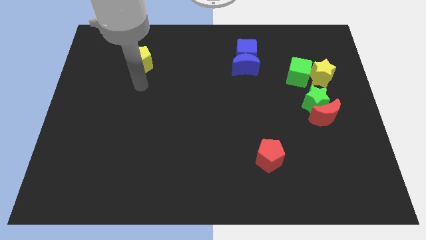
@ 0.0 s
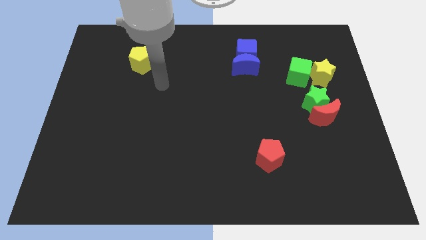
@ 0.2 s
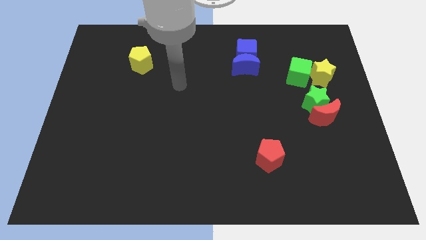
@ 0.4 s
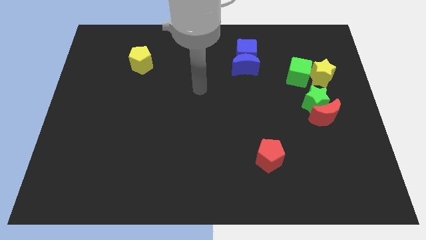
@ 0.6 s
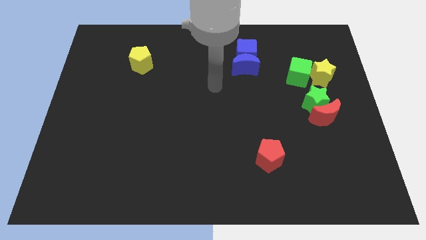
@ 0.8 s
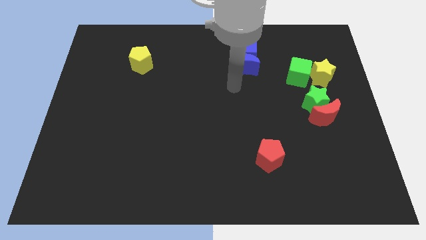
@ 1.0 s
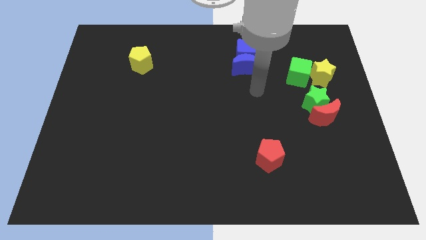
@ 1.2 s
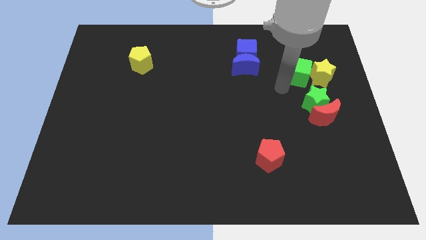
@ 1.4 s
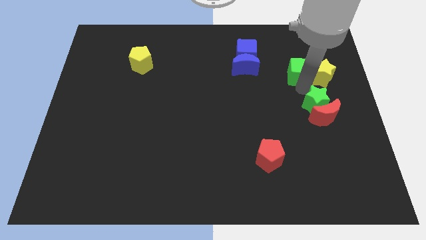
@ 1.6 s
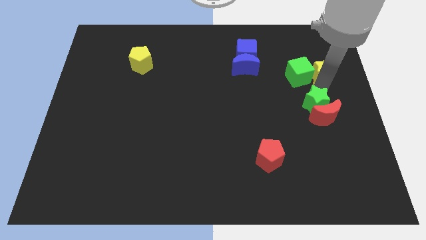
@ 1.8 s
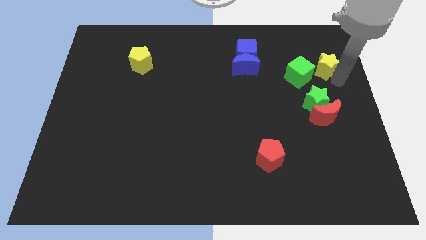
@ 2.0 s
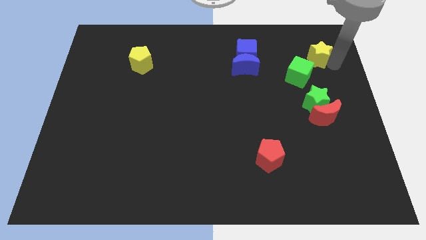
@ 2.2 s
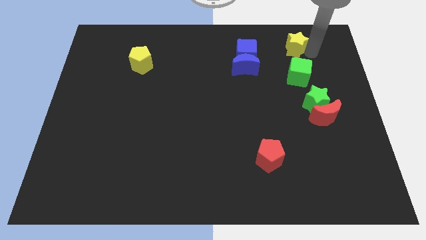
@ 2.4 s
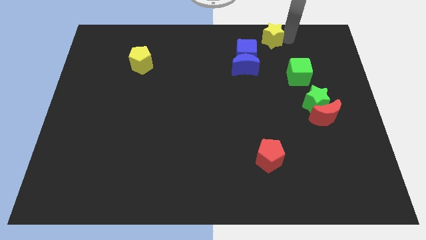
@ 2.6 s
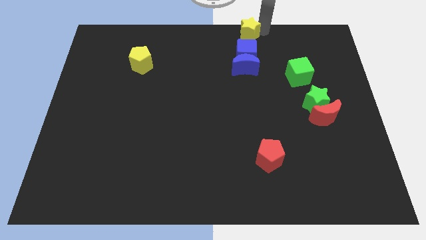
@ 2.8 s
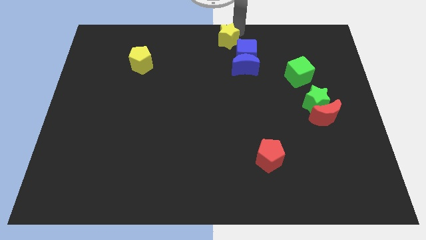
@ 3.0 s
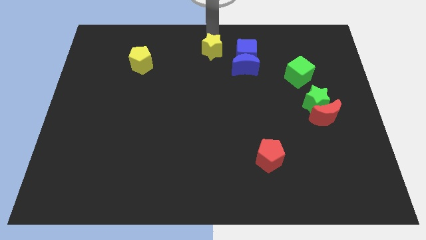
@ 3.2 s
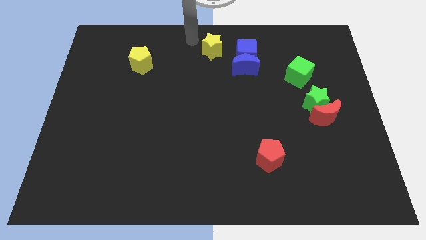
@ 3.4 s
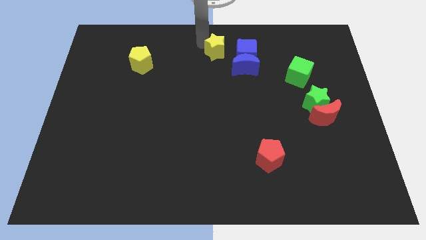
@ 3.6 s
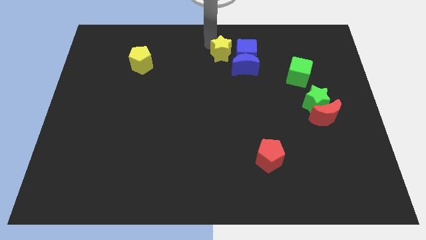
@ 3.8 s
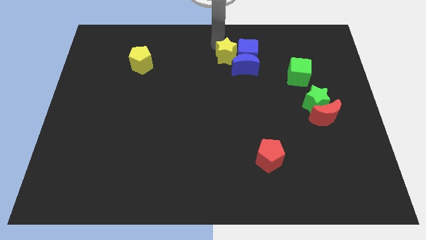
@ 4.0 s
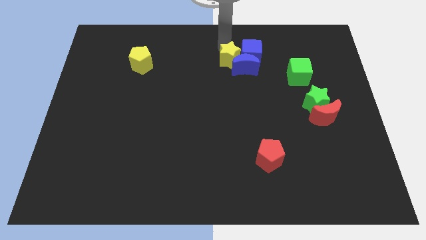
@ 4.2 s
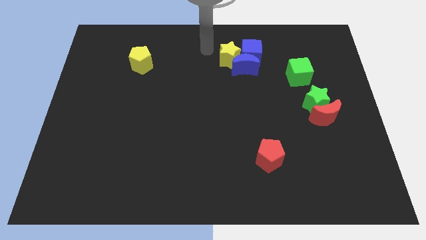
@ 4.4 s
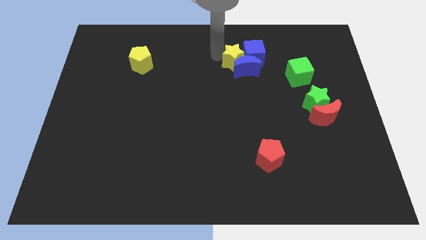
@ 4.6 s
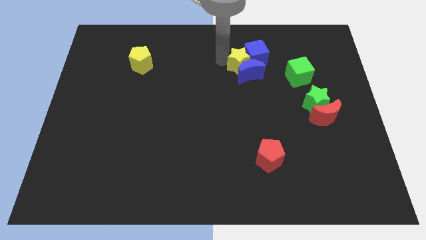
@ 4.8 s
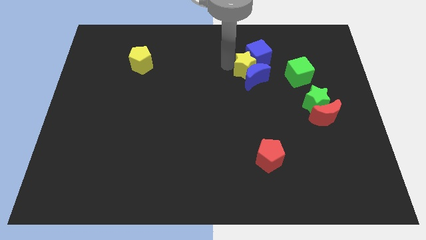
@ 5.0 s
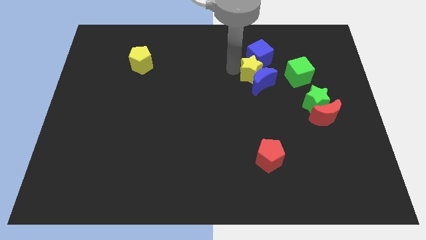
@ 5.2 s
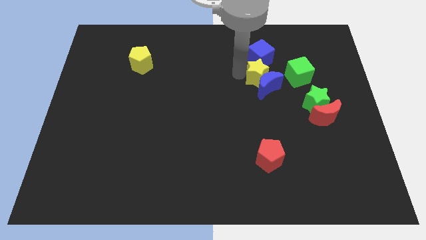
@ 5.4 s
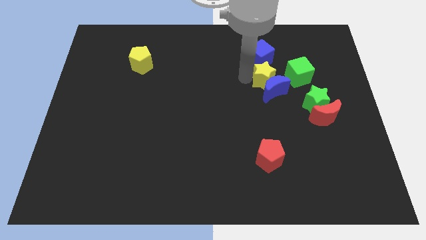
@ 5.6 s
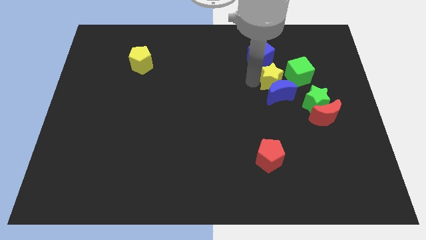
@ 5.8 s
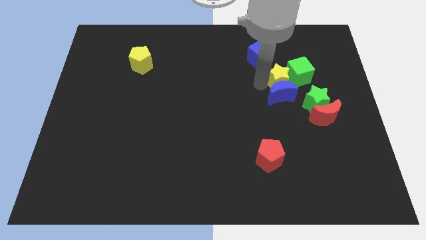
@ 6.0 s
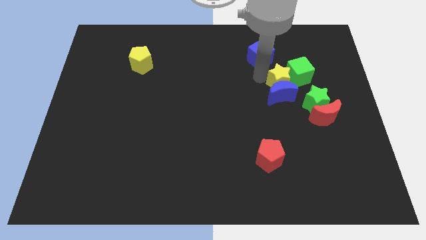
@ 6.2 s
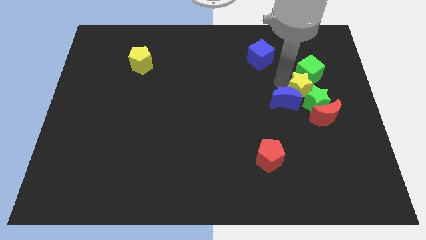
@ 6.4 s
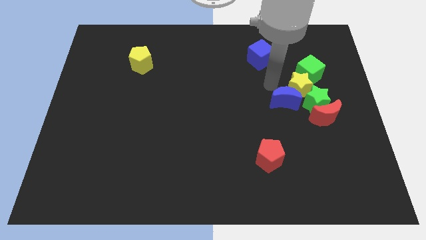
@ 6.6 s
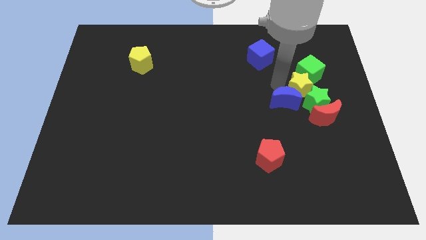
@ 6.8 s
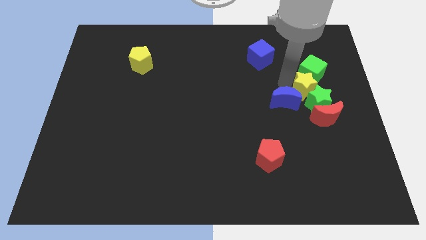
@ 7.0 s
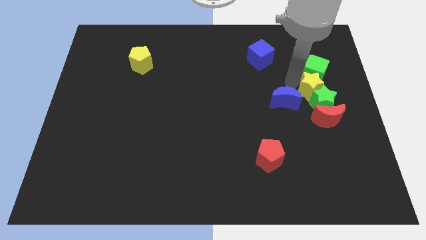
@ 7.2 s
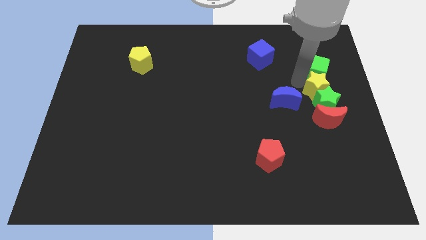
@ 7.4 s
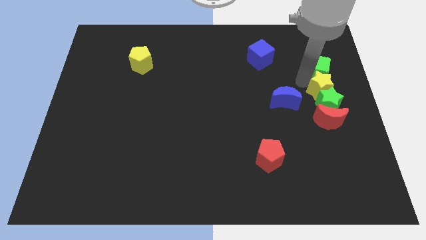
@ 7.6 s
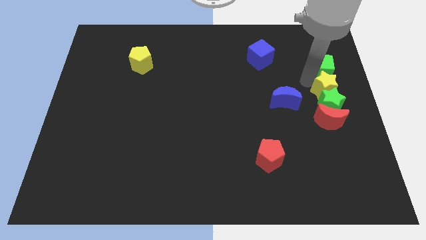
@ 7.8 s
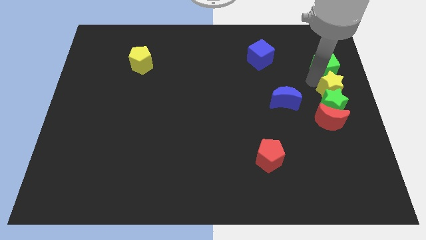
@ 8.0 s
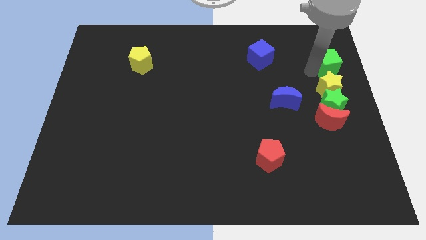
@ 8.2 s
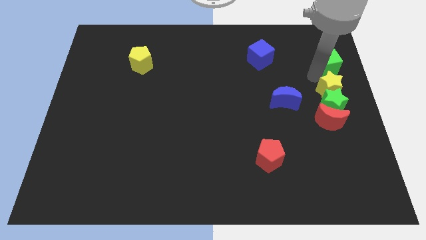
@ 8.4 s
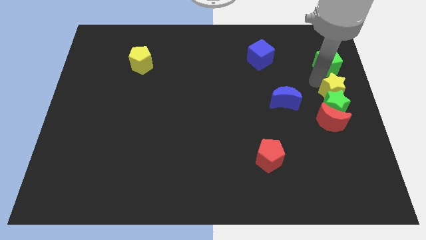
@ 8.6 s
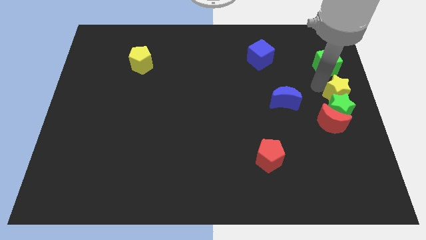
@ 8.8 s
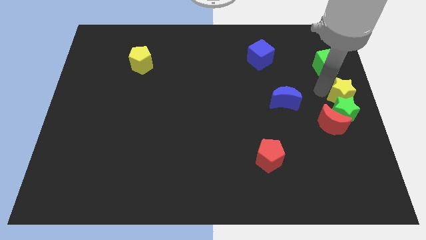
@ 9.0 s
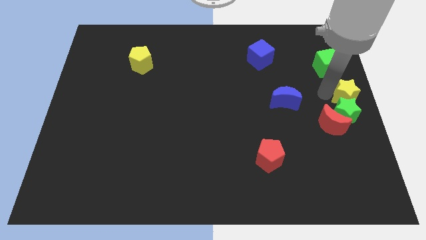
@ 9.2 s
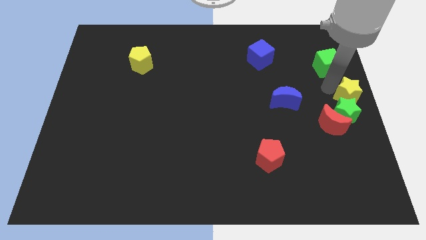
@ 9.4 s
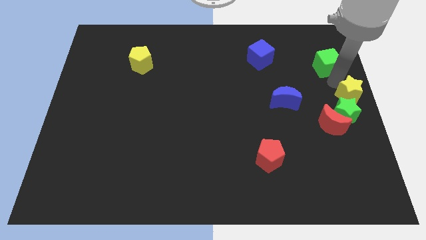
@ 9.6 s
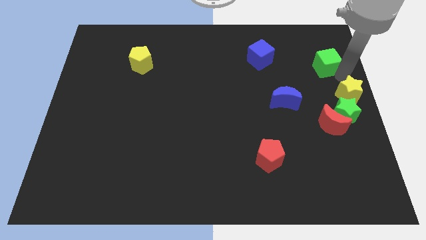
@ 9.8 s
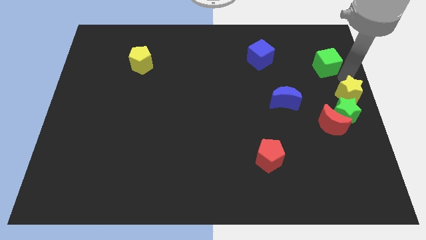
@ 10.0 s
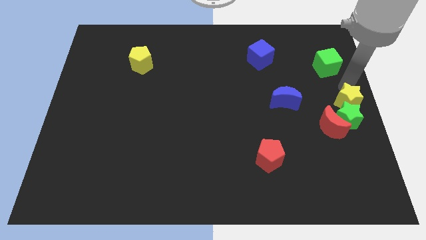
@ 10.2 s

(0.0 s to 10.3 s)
move the yellow star downwards a little bit

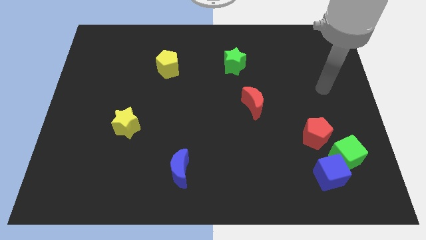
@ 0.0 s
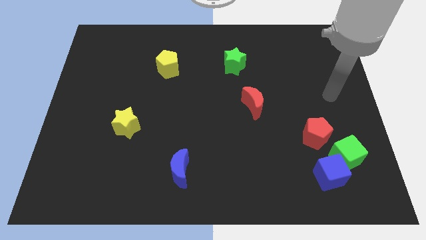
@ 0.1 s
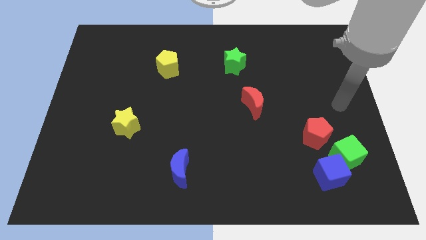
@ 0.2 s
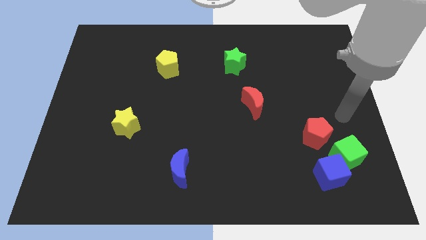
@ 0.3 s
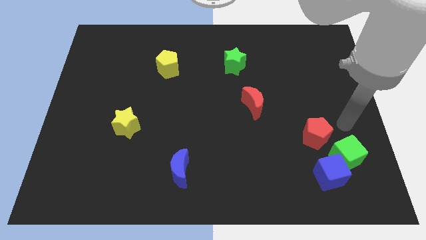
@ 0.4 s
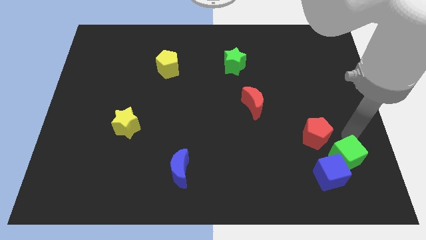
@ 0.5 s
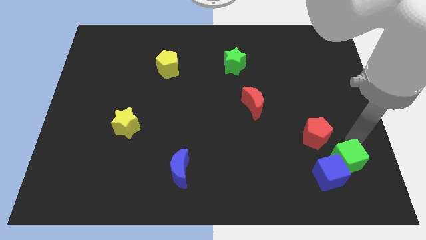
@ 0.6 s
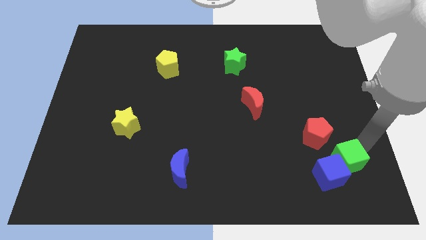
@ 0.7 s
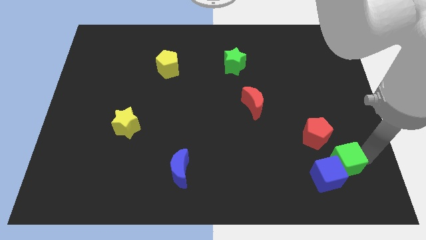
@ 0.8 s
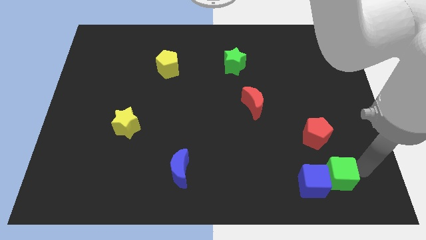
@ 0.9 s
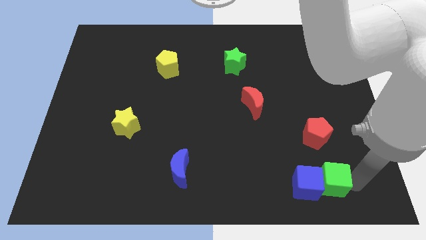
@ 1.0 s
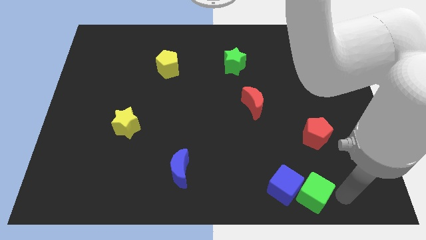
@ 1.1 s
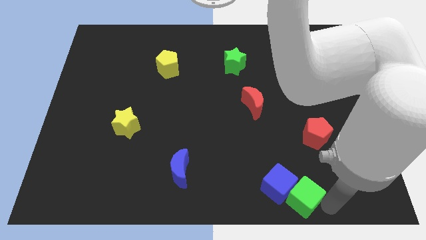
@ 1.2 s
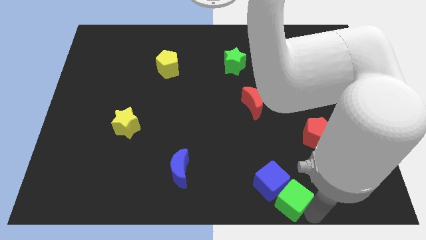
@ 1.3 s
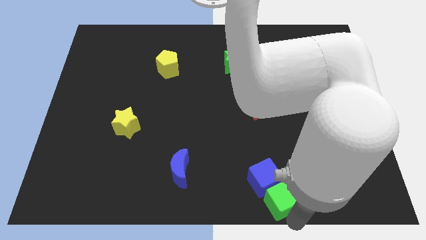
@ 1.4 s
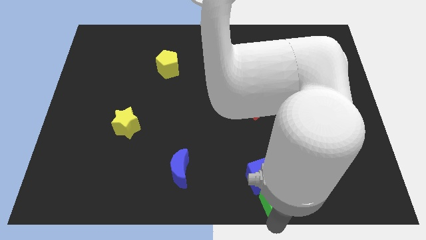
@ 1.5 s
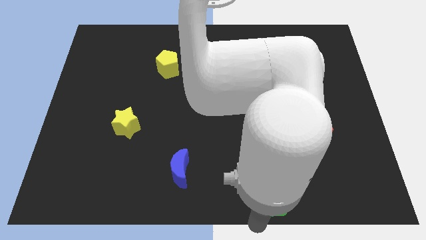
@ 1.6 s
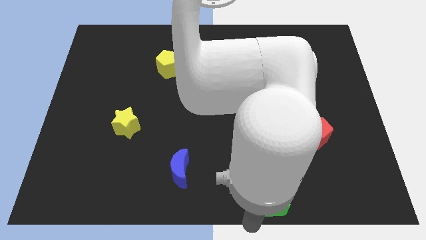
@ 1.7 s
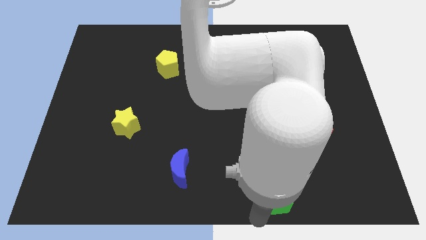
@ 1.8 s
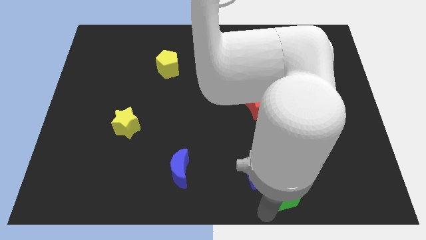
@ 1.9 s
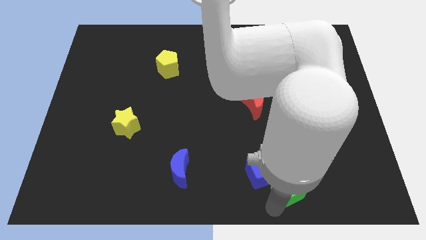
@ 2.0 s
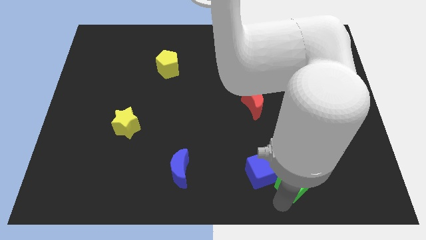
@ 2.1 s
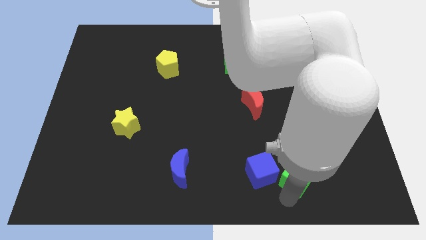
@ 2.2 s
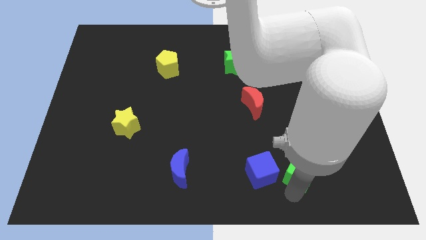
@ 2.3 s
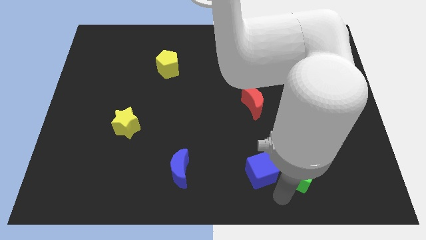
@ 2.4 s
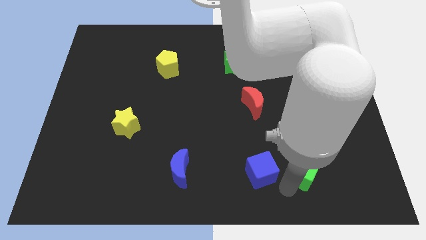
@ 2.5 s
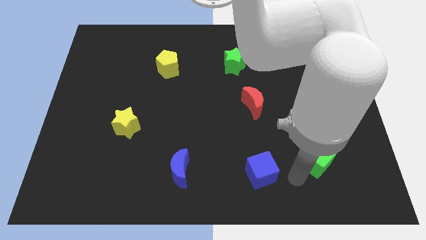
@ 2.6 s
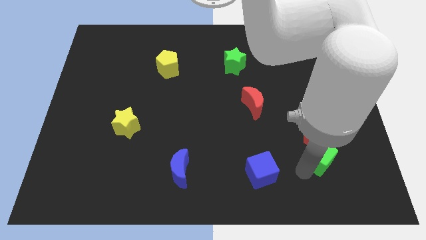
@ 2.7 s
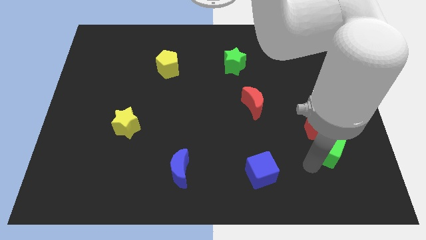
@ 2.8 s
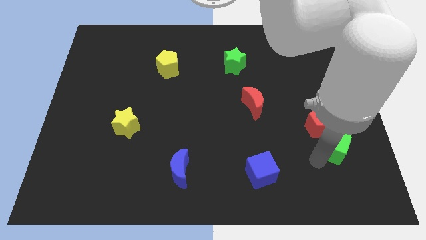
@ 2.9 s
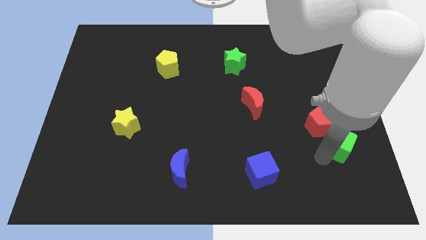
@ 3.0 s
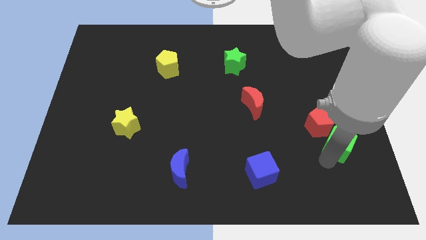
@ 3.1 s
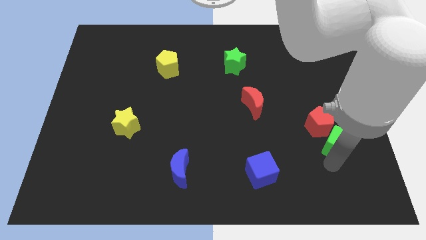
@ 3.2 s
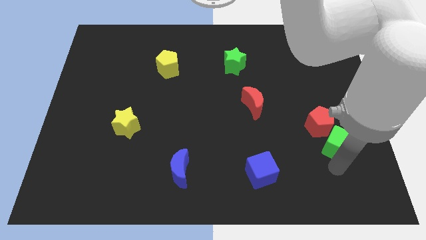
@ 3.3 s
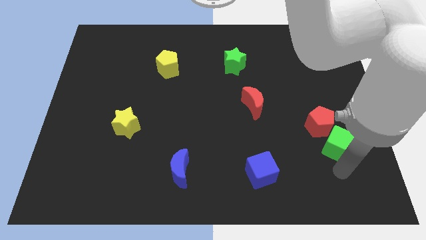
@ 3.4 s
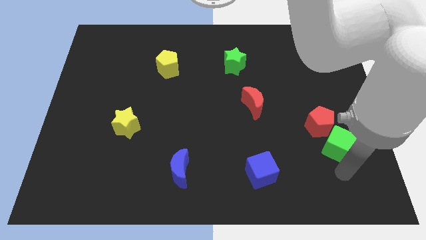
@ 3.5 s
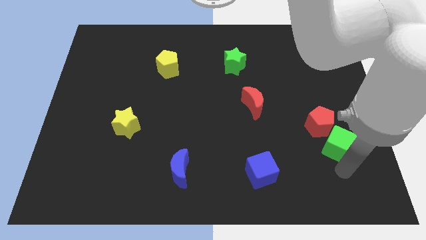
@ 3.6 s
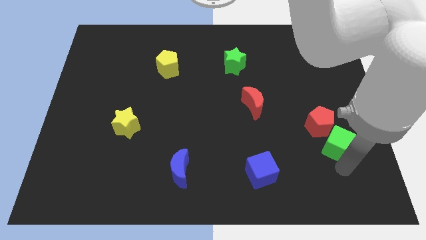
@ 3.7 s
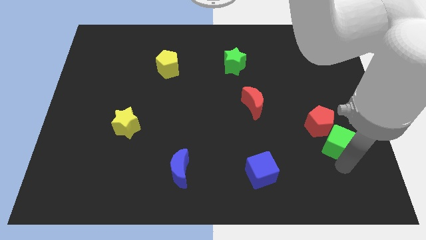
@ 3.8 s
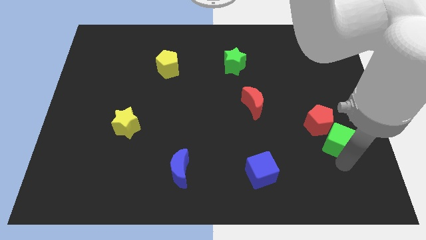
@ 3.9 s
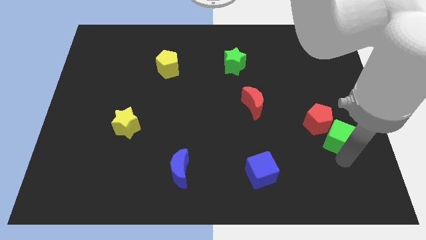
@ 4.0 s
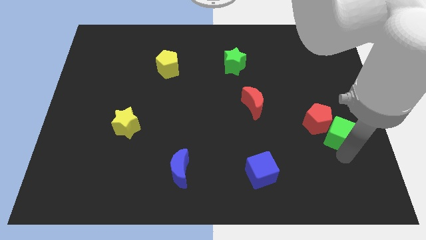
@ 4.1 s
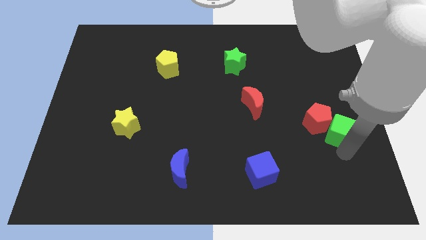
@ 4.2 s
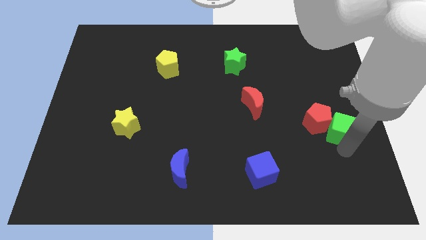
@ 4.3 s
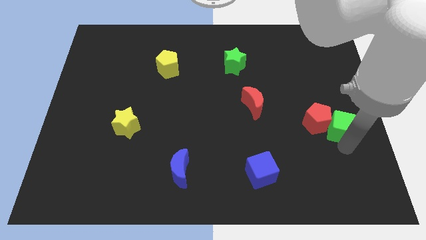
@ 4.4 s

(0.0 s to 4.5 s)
move the green cube up a little bit
